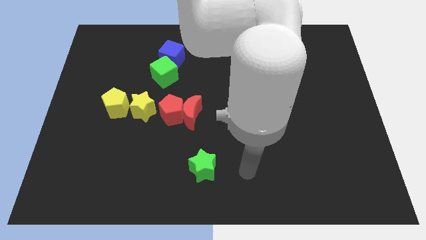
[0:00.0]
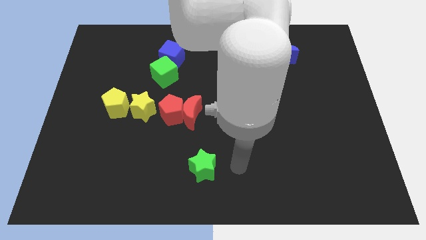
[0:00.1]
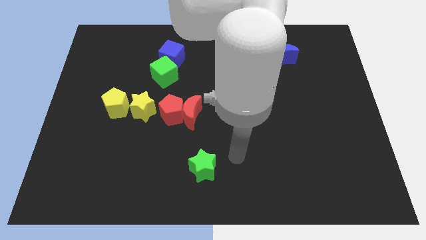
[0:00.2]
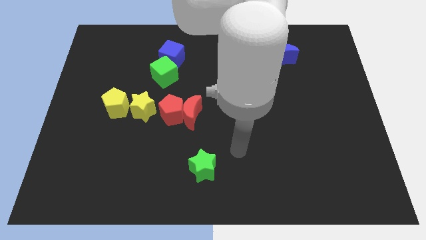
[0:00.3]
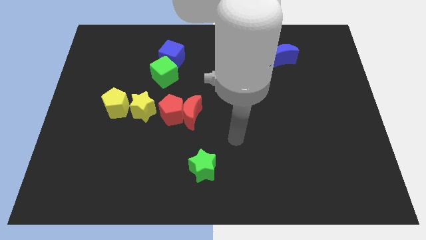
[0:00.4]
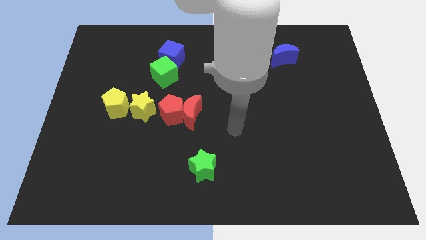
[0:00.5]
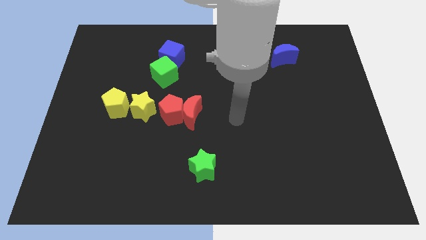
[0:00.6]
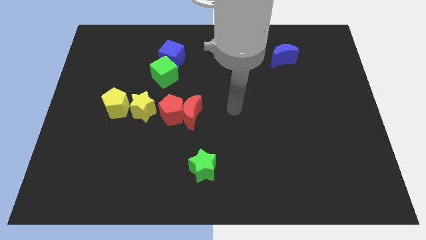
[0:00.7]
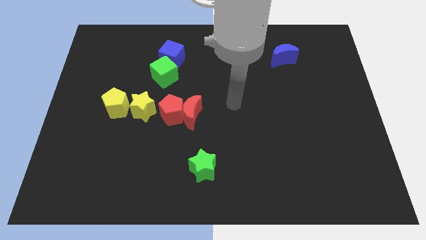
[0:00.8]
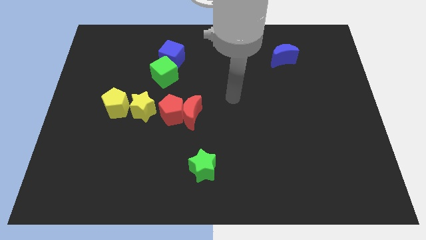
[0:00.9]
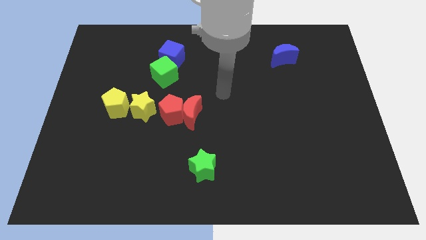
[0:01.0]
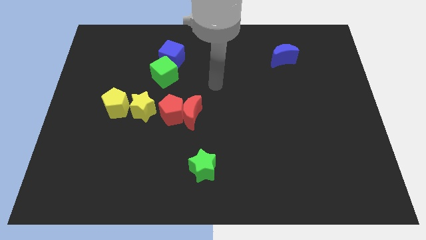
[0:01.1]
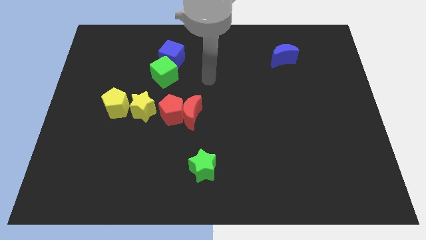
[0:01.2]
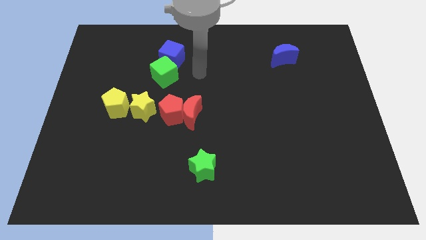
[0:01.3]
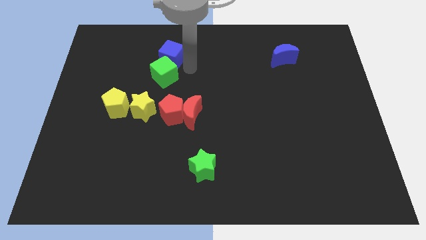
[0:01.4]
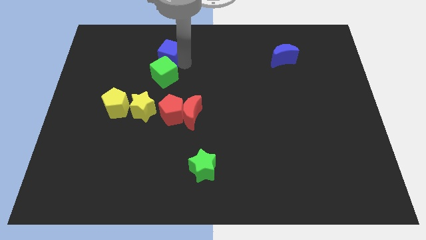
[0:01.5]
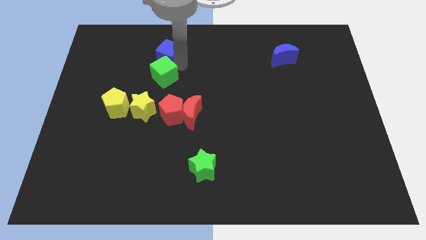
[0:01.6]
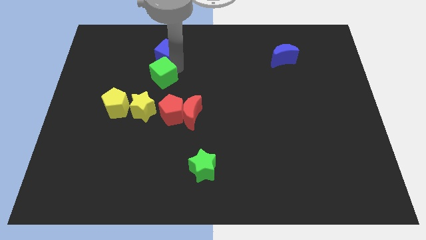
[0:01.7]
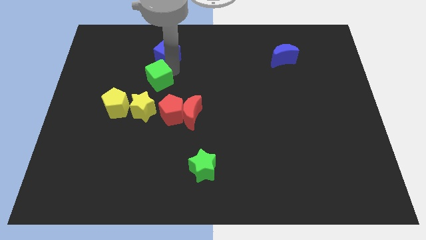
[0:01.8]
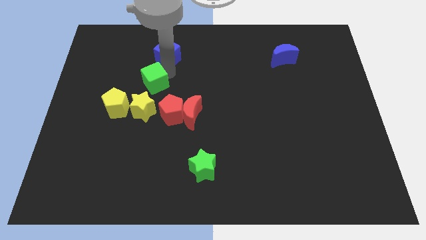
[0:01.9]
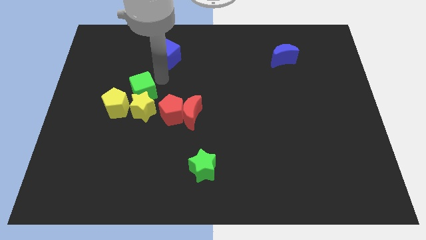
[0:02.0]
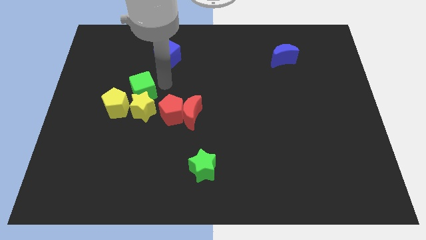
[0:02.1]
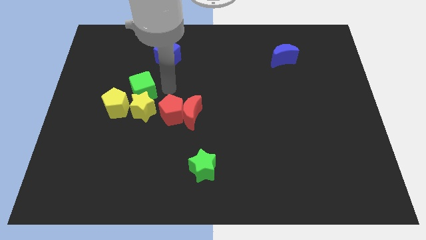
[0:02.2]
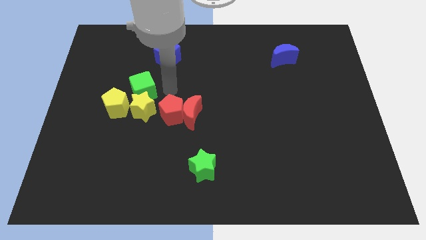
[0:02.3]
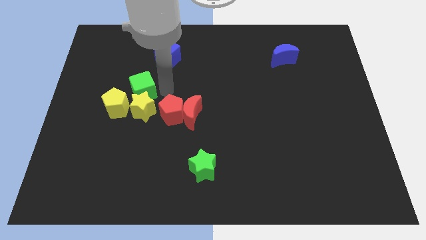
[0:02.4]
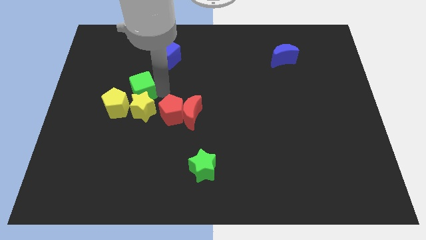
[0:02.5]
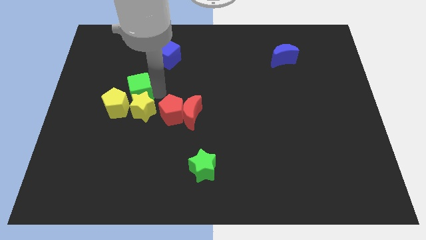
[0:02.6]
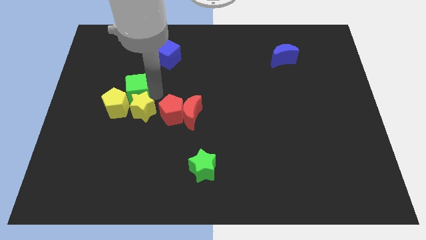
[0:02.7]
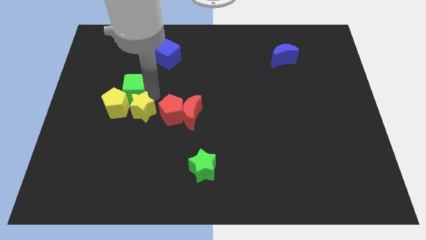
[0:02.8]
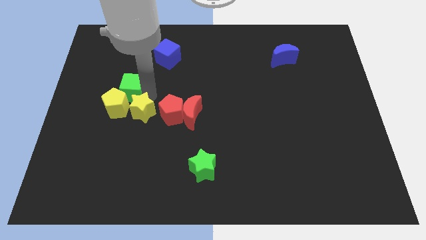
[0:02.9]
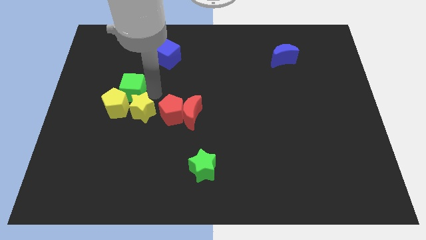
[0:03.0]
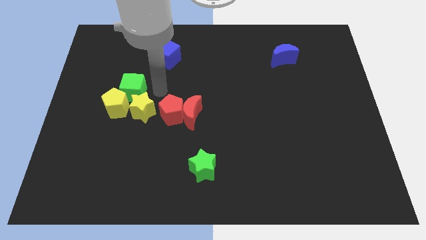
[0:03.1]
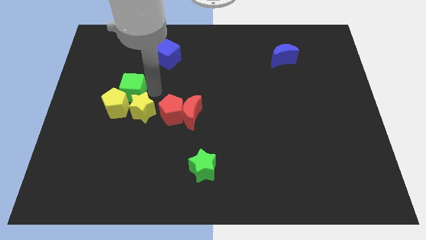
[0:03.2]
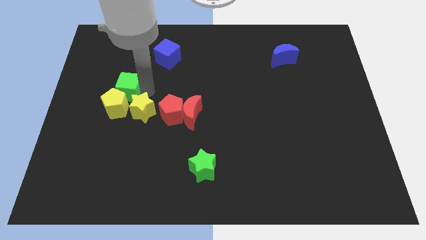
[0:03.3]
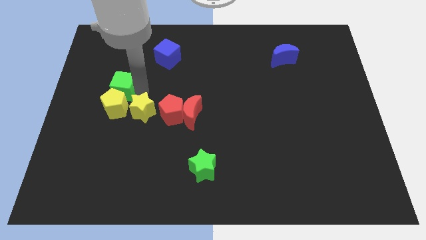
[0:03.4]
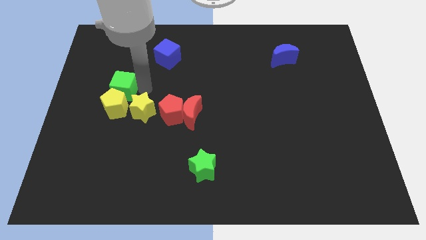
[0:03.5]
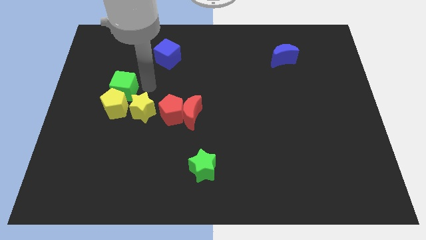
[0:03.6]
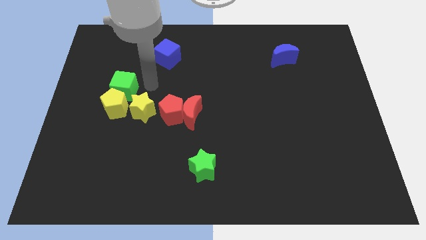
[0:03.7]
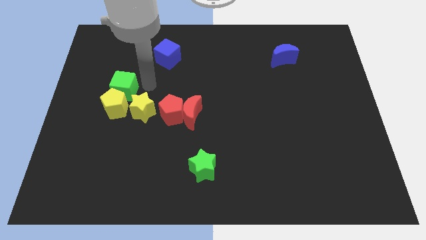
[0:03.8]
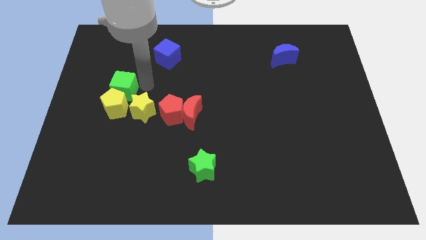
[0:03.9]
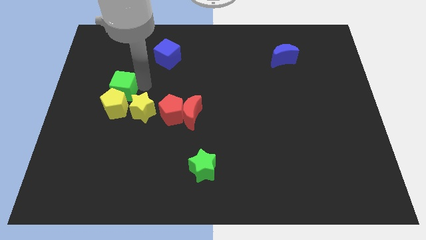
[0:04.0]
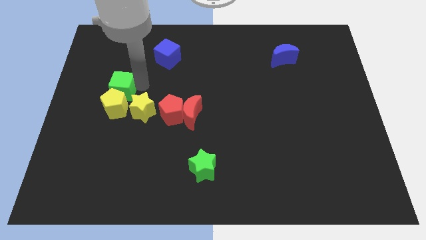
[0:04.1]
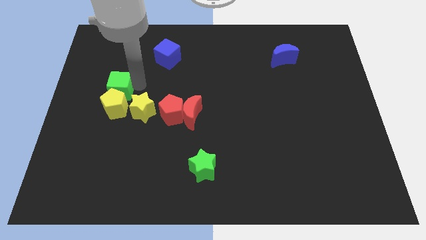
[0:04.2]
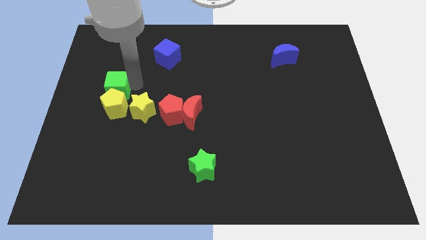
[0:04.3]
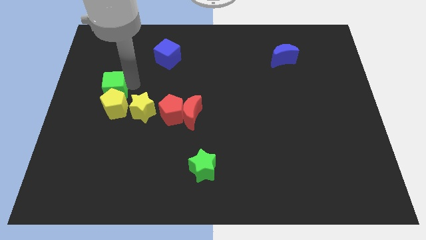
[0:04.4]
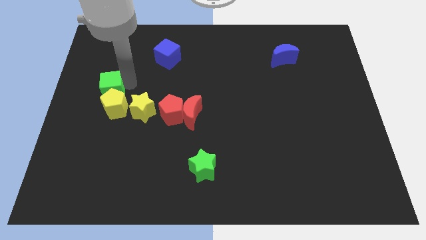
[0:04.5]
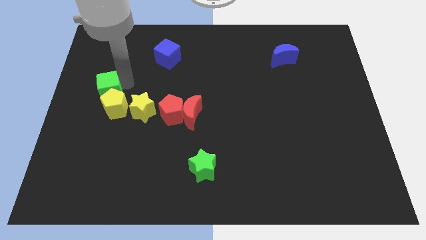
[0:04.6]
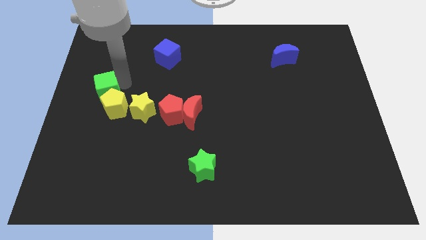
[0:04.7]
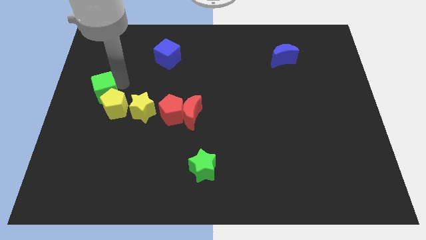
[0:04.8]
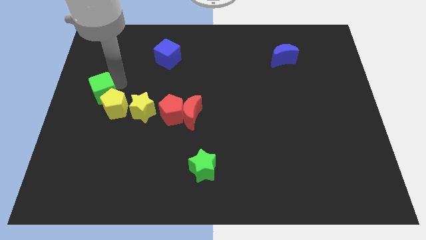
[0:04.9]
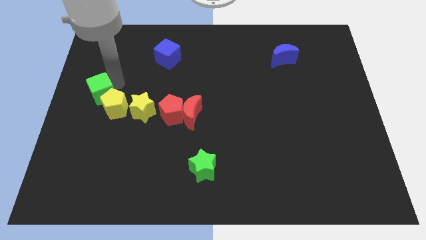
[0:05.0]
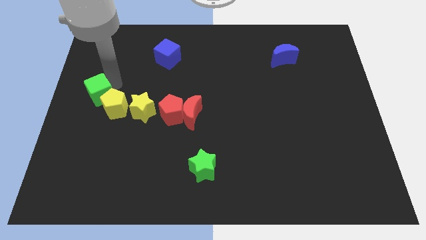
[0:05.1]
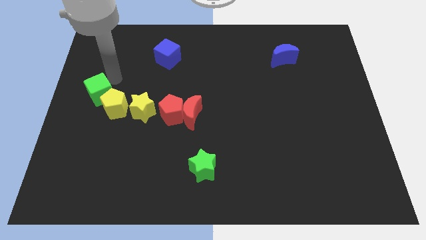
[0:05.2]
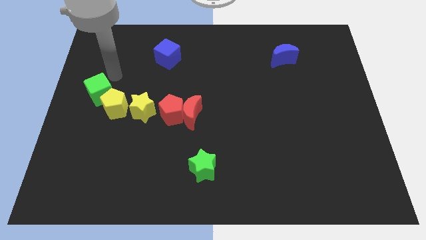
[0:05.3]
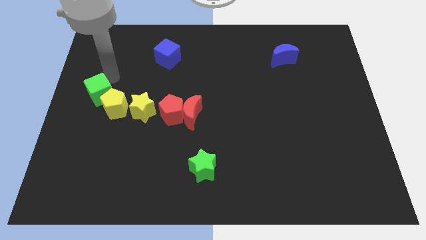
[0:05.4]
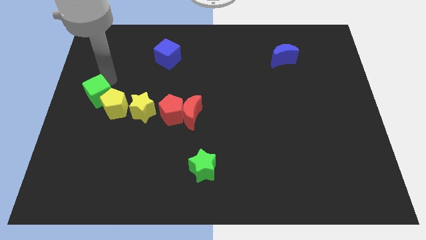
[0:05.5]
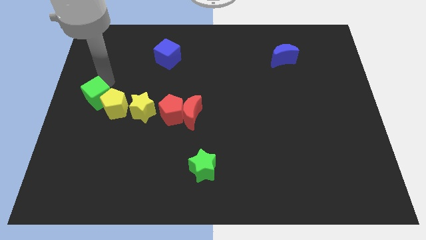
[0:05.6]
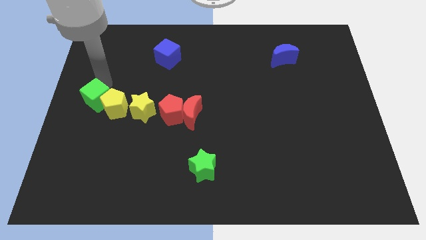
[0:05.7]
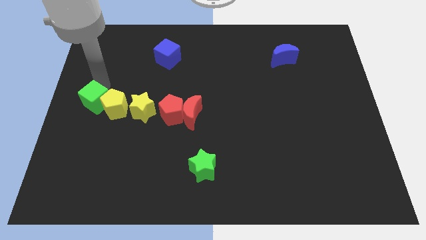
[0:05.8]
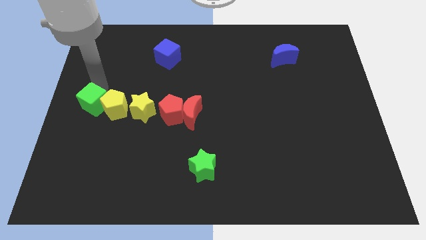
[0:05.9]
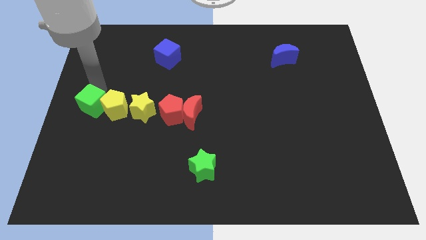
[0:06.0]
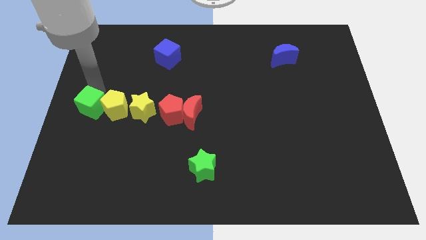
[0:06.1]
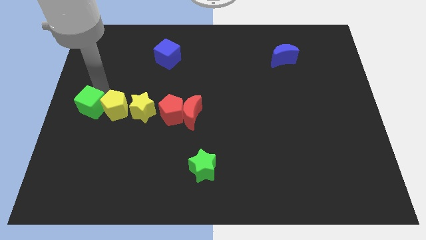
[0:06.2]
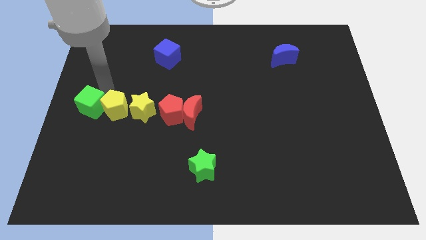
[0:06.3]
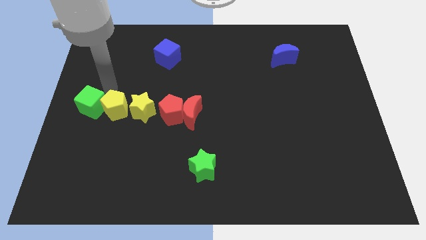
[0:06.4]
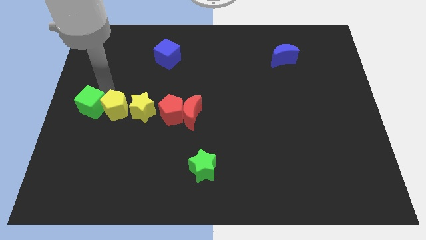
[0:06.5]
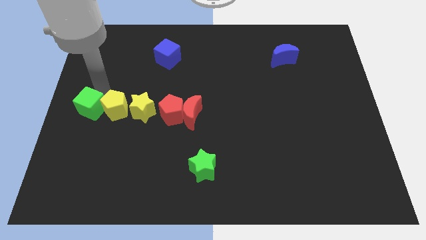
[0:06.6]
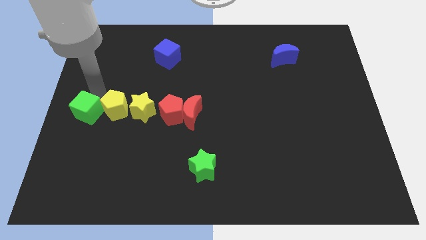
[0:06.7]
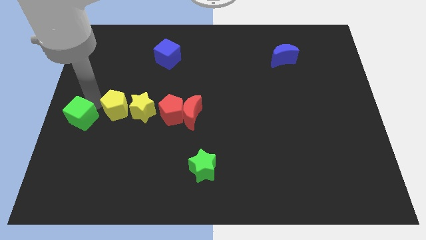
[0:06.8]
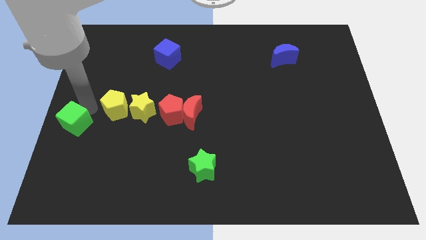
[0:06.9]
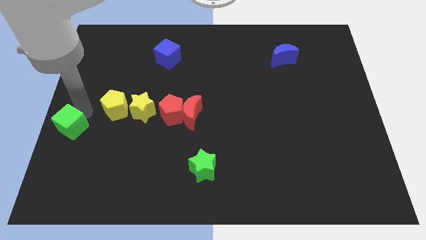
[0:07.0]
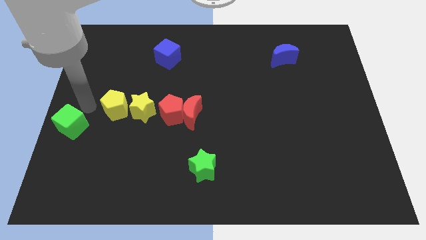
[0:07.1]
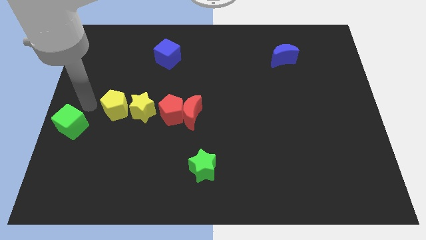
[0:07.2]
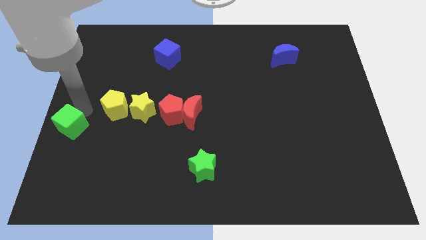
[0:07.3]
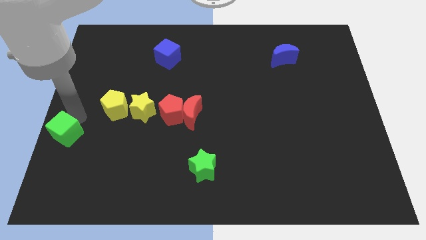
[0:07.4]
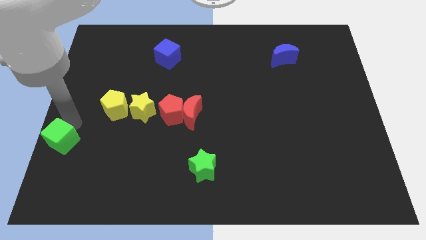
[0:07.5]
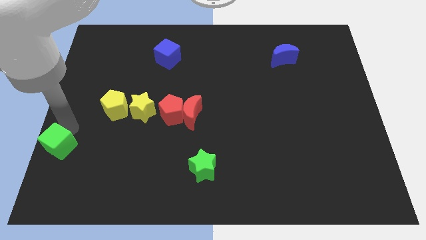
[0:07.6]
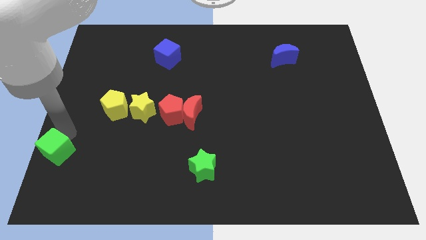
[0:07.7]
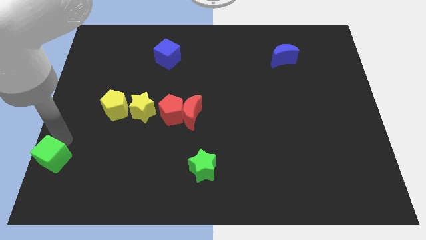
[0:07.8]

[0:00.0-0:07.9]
move the green cube to the bottom left of the board

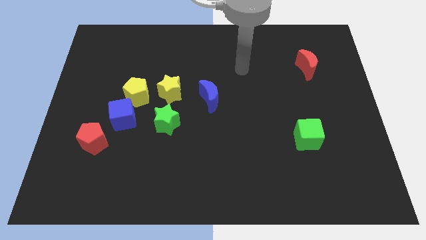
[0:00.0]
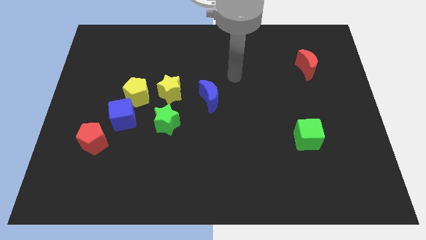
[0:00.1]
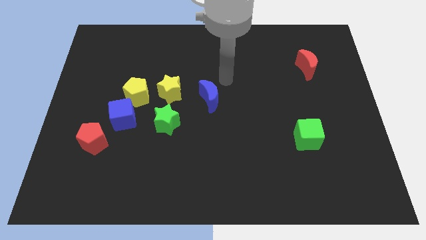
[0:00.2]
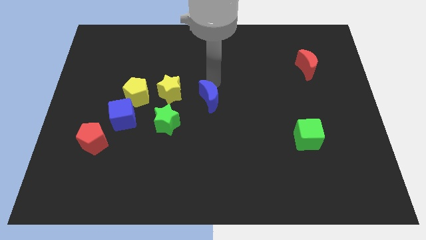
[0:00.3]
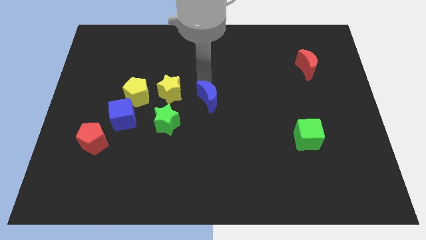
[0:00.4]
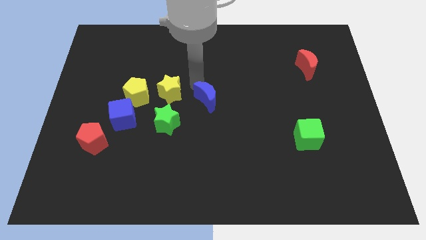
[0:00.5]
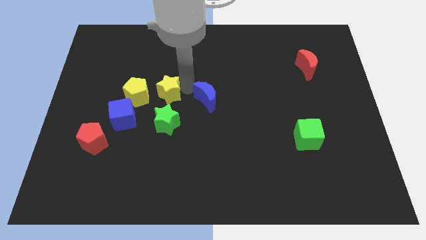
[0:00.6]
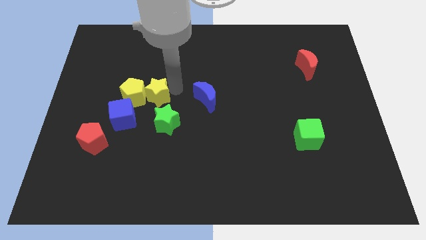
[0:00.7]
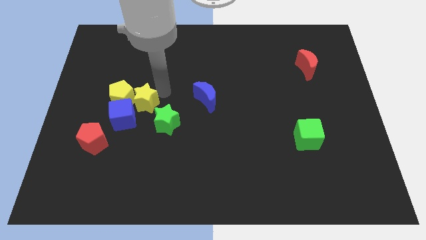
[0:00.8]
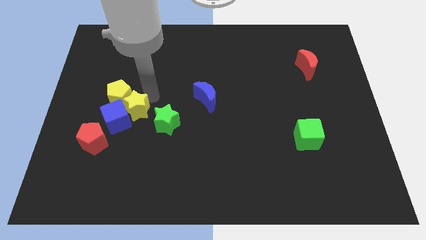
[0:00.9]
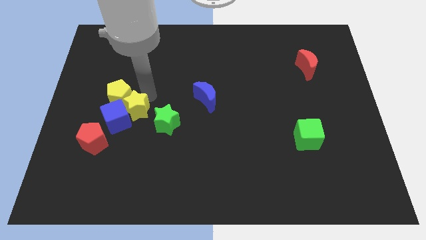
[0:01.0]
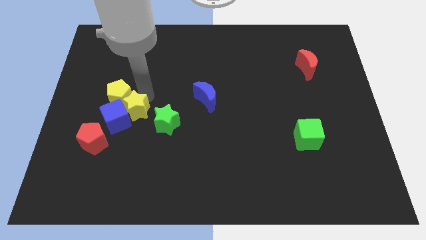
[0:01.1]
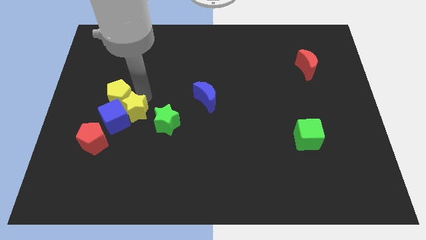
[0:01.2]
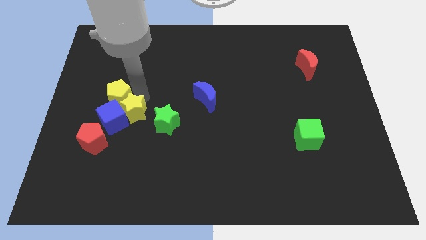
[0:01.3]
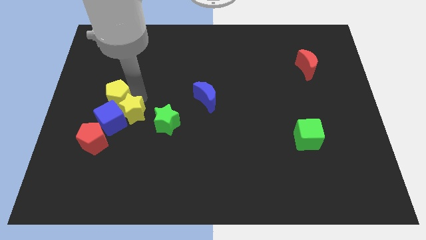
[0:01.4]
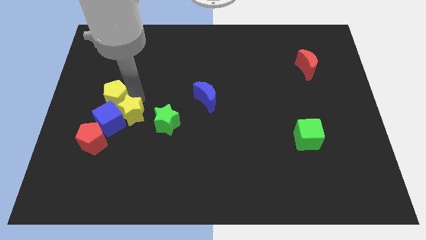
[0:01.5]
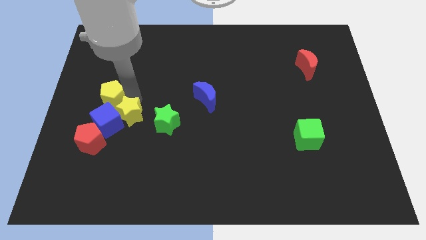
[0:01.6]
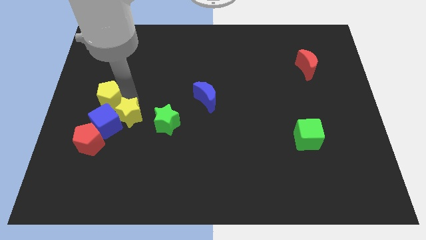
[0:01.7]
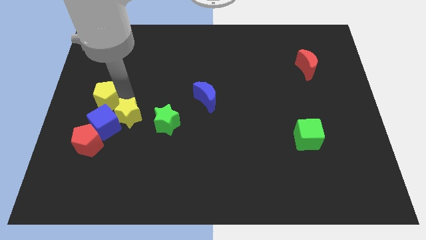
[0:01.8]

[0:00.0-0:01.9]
put the yellow pentagon to the center left
